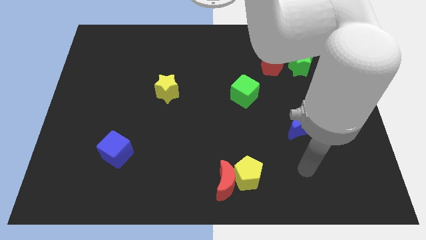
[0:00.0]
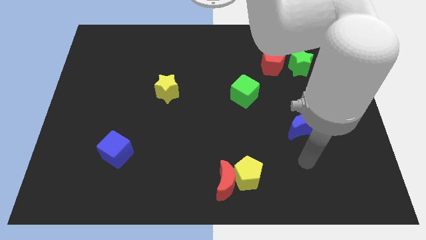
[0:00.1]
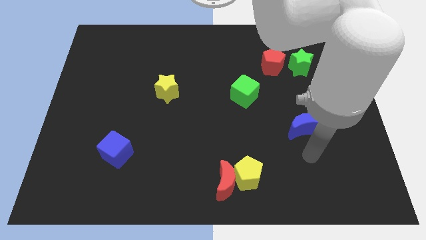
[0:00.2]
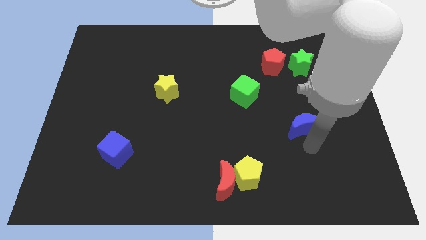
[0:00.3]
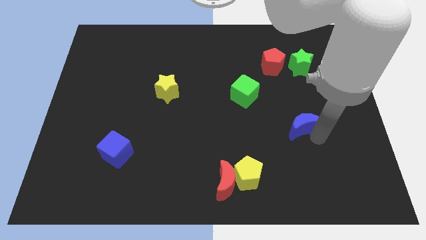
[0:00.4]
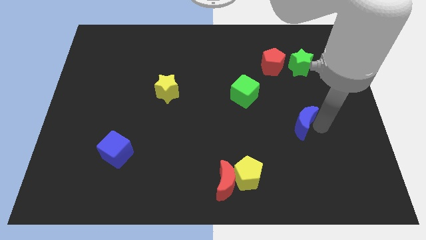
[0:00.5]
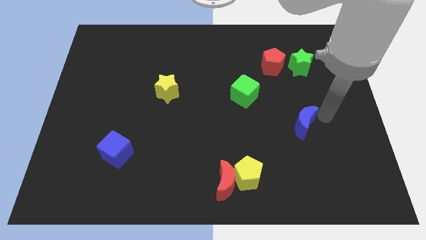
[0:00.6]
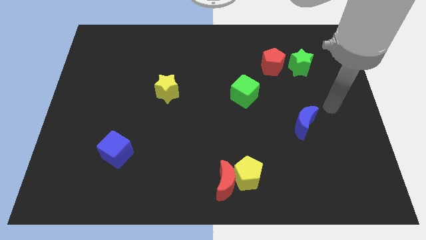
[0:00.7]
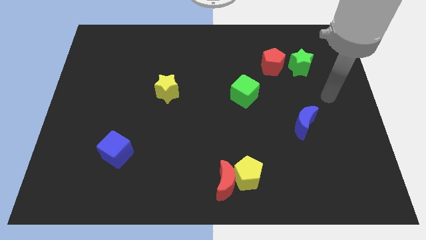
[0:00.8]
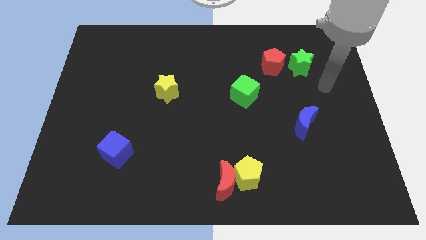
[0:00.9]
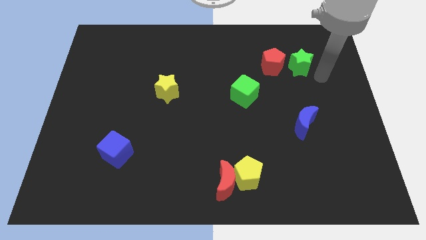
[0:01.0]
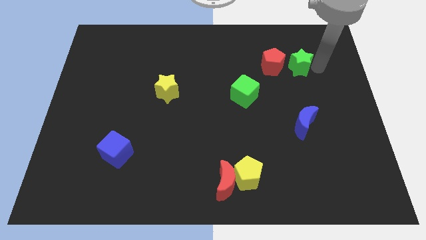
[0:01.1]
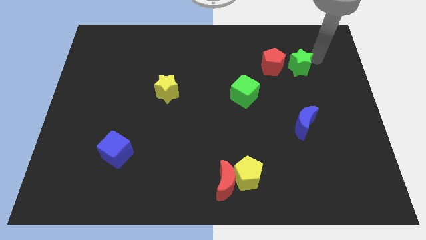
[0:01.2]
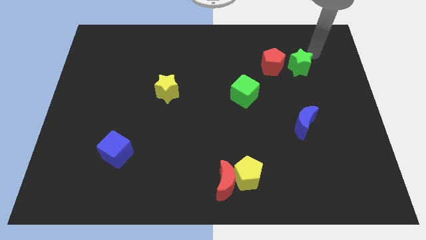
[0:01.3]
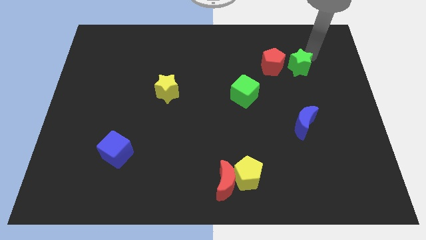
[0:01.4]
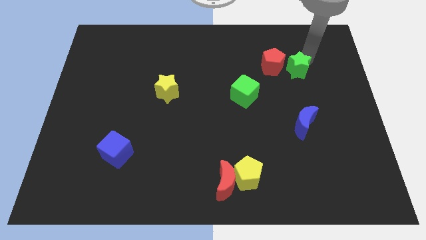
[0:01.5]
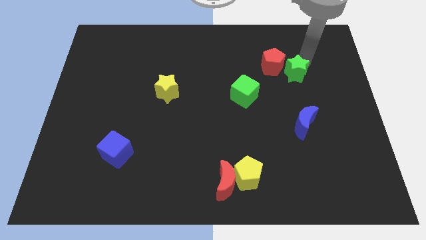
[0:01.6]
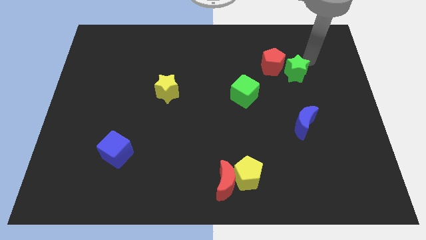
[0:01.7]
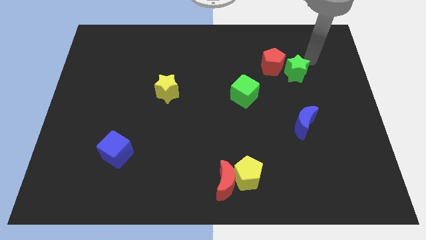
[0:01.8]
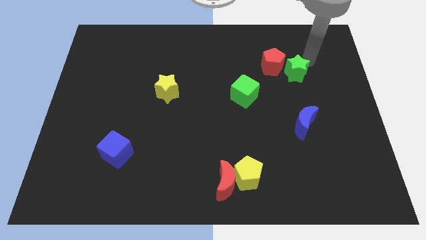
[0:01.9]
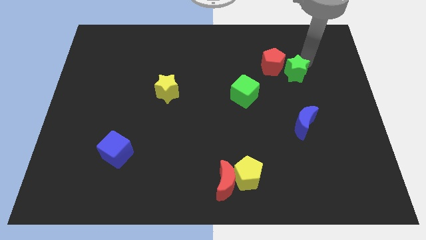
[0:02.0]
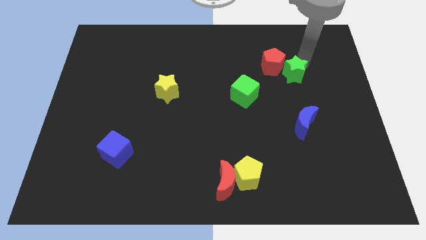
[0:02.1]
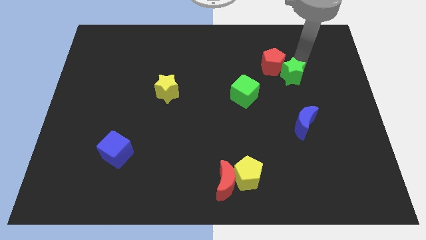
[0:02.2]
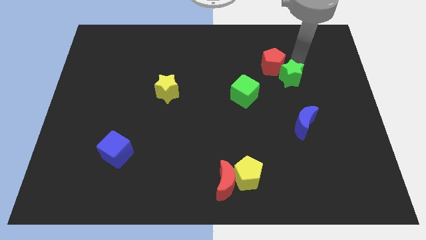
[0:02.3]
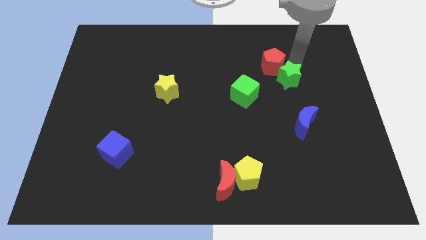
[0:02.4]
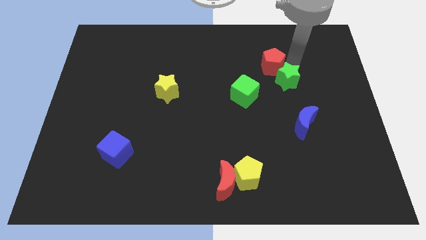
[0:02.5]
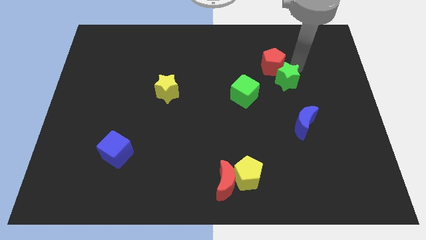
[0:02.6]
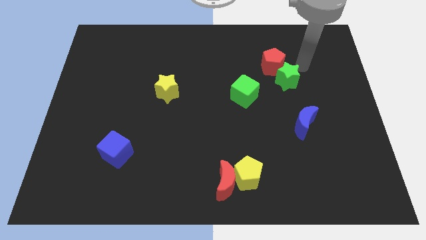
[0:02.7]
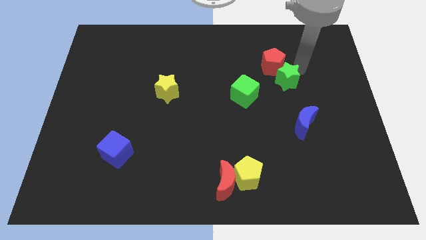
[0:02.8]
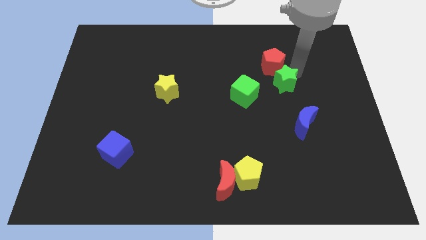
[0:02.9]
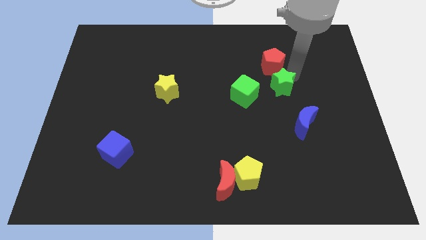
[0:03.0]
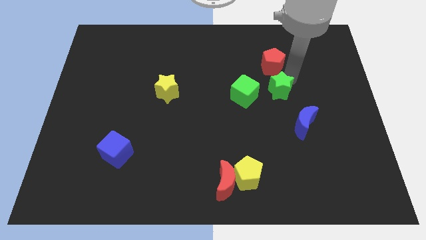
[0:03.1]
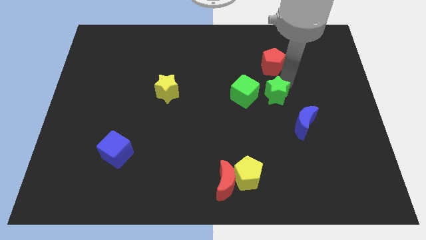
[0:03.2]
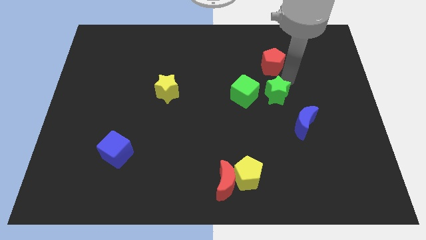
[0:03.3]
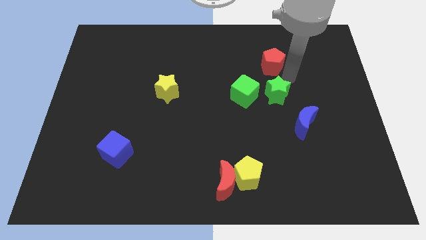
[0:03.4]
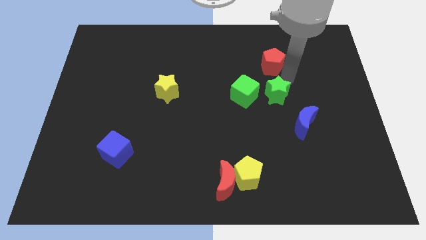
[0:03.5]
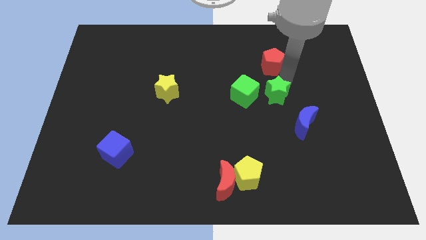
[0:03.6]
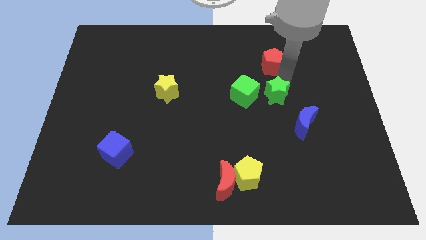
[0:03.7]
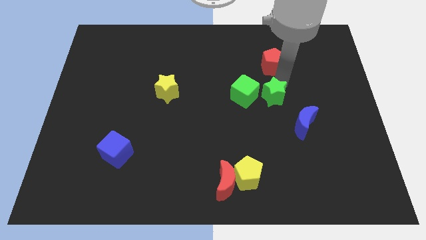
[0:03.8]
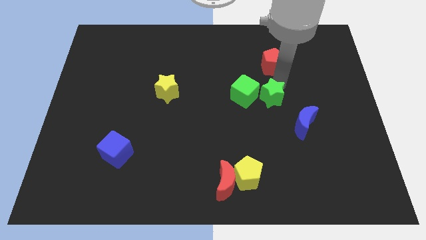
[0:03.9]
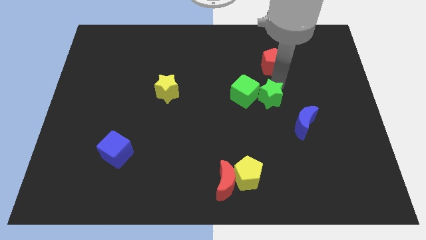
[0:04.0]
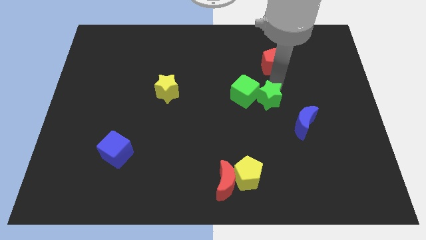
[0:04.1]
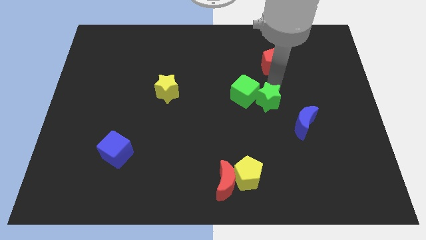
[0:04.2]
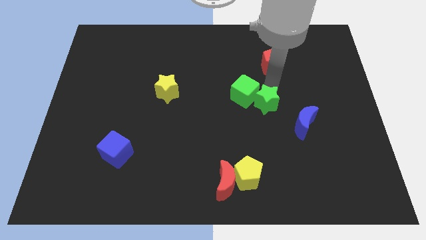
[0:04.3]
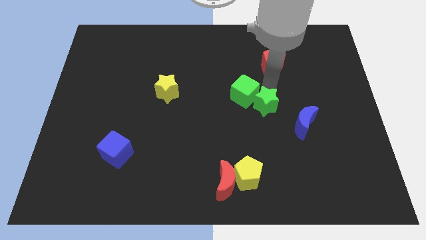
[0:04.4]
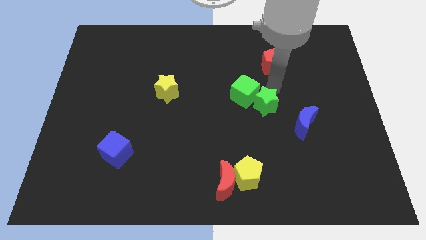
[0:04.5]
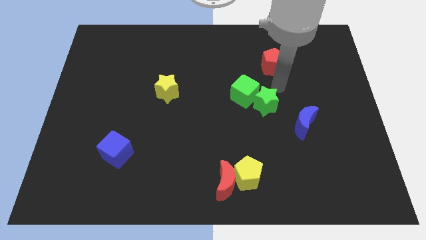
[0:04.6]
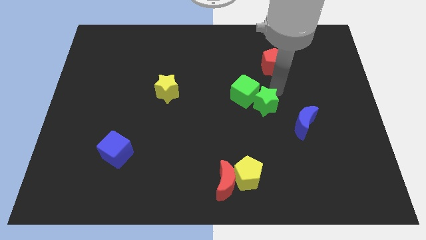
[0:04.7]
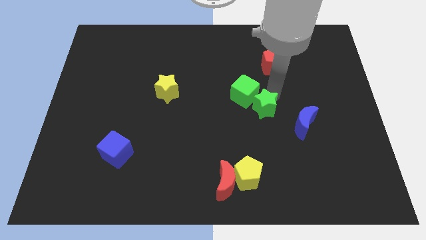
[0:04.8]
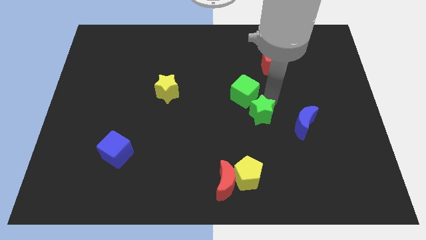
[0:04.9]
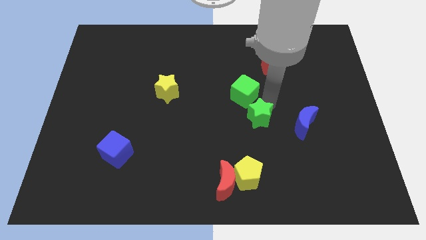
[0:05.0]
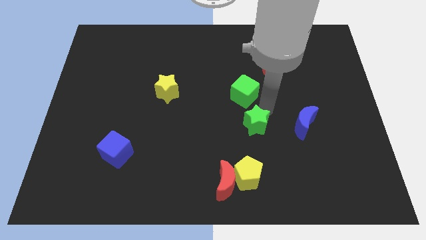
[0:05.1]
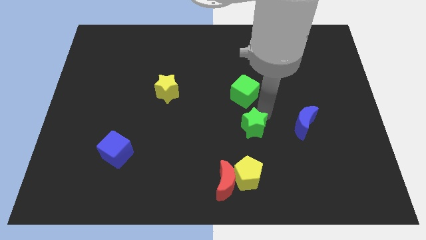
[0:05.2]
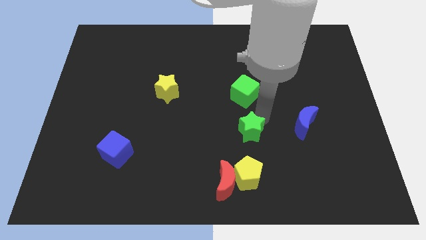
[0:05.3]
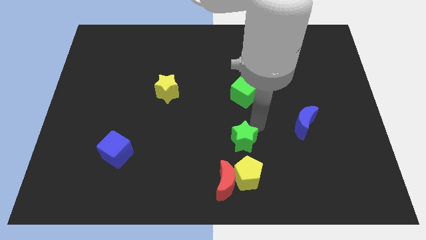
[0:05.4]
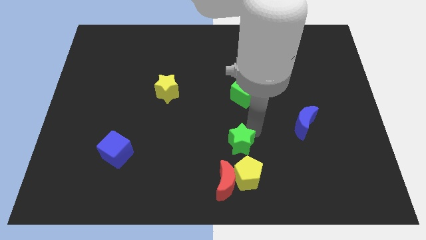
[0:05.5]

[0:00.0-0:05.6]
push the green star to the top left of the yellow pentagon

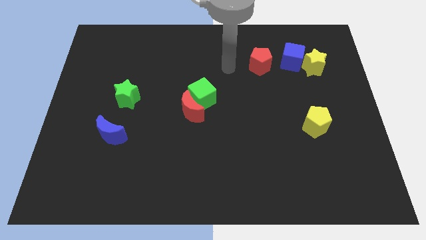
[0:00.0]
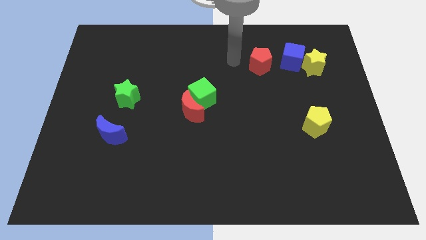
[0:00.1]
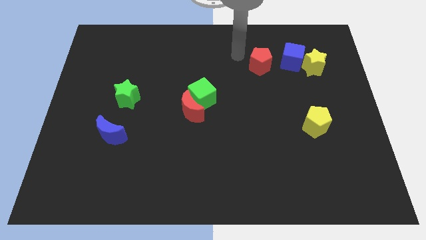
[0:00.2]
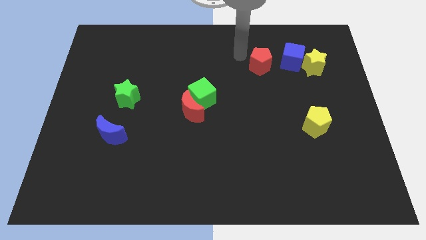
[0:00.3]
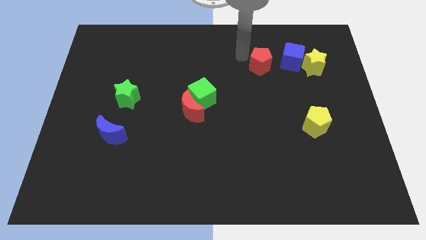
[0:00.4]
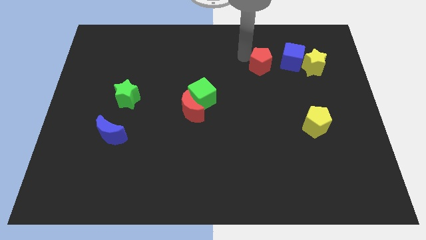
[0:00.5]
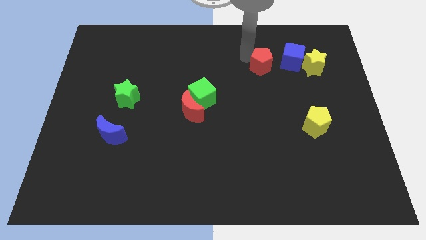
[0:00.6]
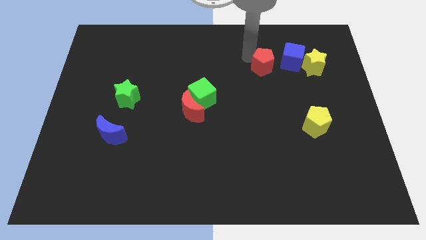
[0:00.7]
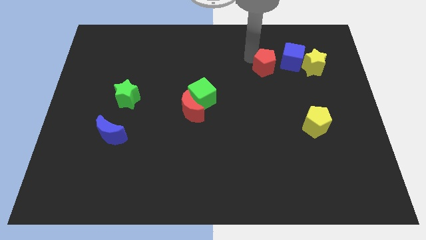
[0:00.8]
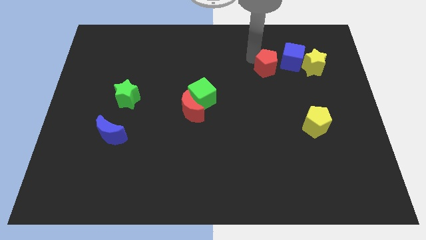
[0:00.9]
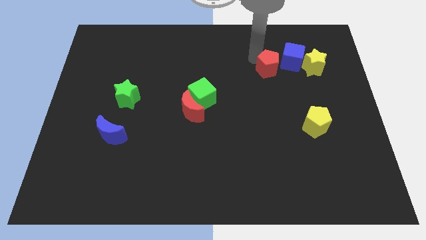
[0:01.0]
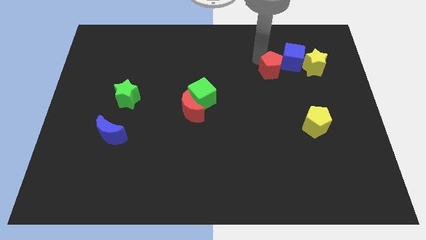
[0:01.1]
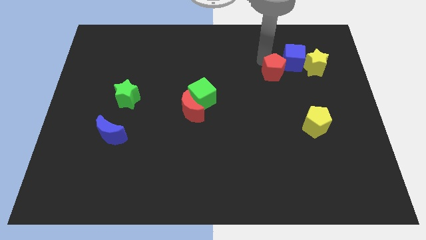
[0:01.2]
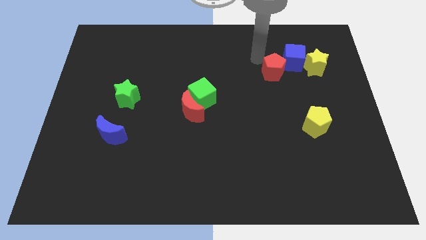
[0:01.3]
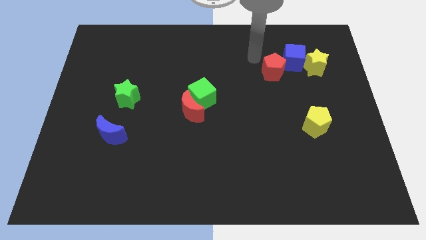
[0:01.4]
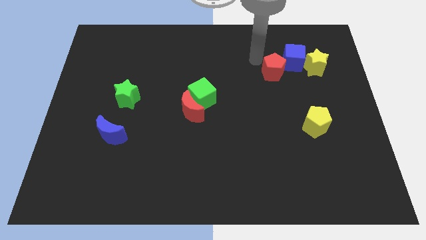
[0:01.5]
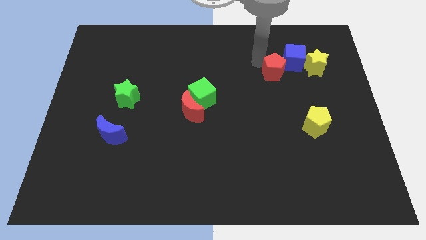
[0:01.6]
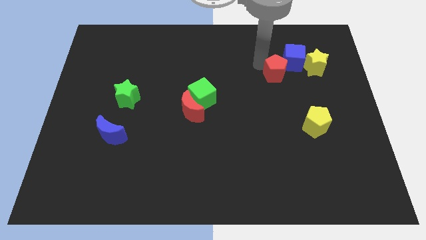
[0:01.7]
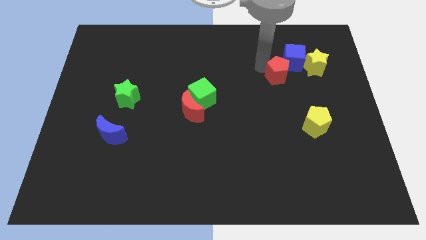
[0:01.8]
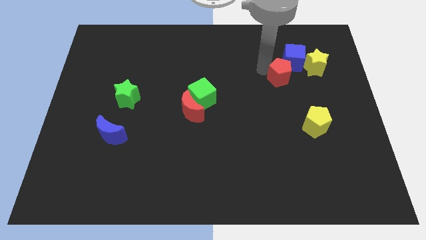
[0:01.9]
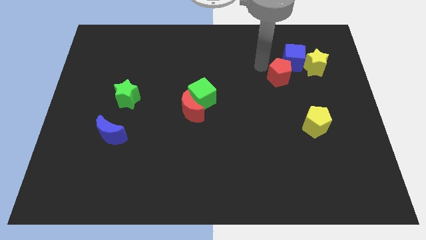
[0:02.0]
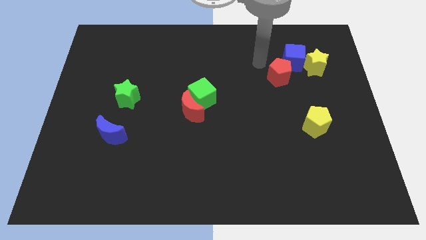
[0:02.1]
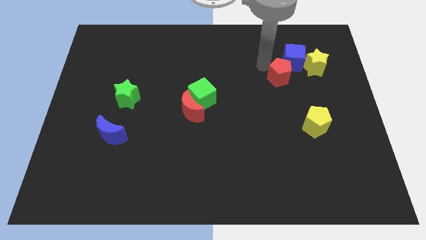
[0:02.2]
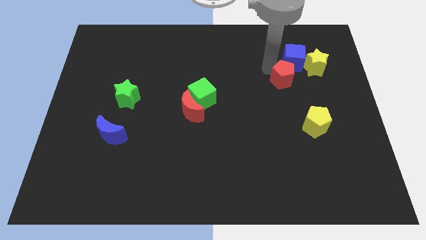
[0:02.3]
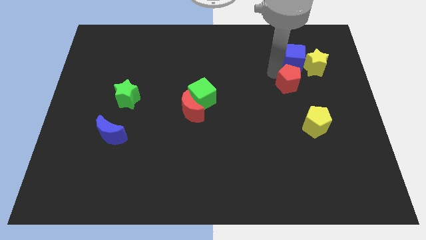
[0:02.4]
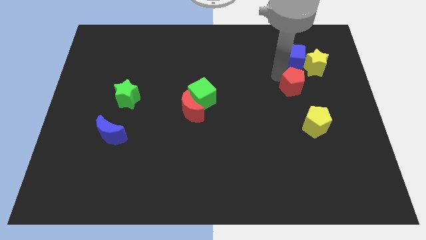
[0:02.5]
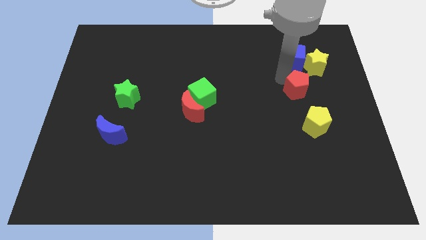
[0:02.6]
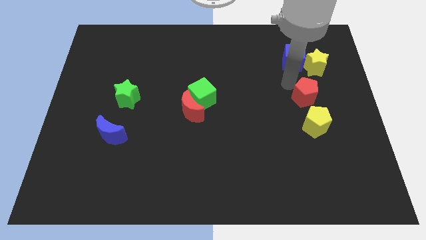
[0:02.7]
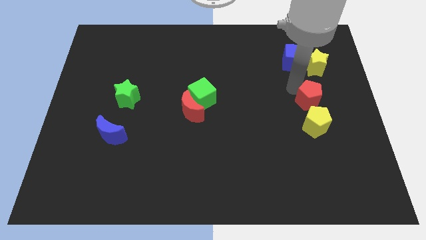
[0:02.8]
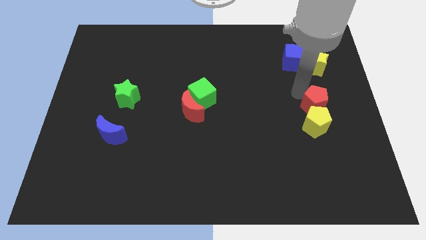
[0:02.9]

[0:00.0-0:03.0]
push the red pentagon diagonally up and to the right of the yellow pentagon
